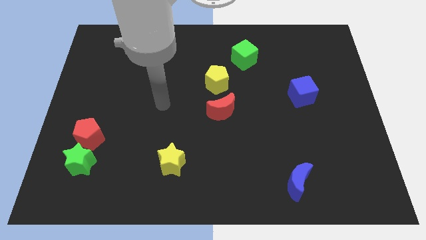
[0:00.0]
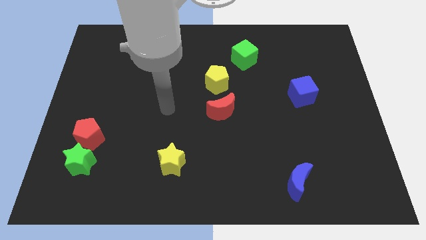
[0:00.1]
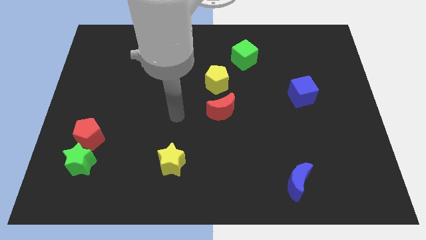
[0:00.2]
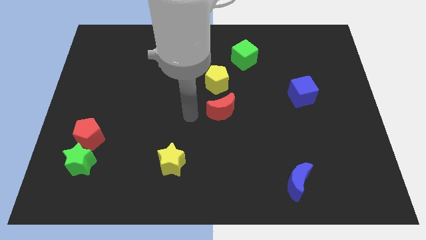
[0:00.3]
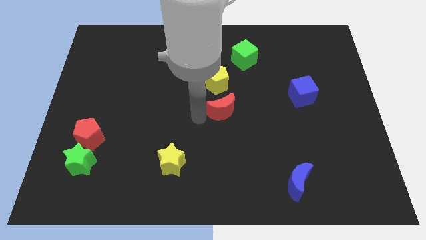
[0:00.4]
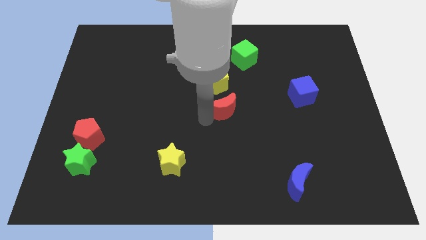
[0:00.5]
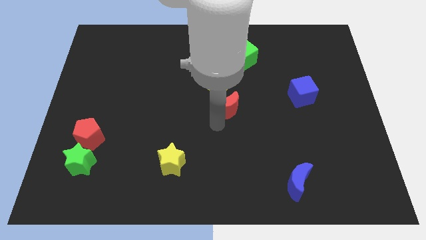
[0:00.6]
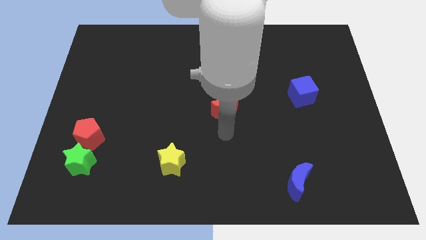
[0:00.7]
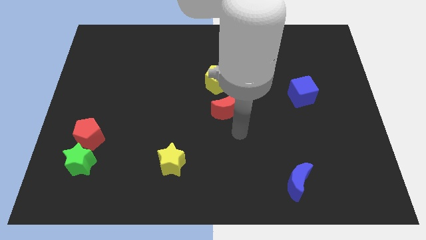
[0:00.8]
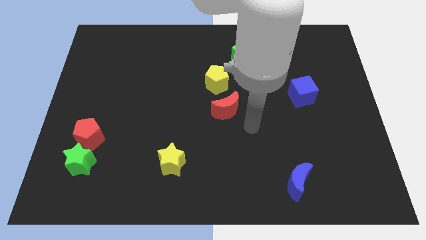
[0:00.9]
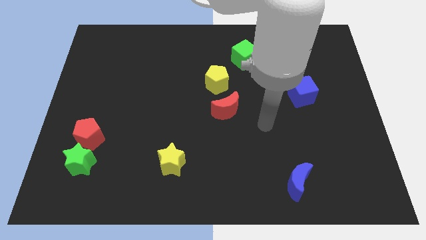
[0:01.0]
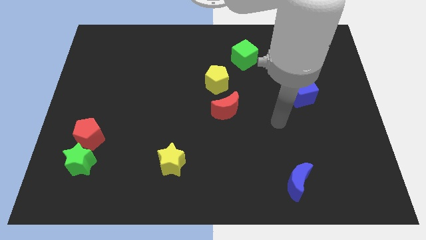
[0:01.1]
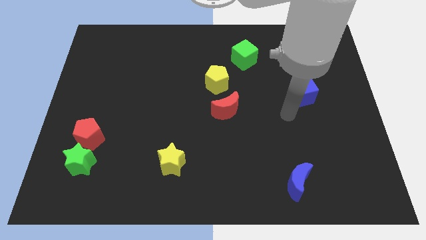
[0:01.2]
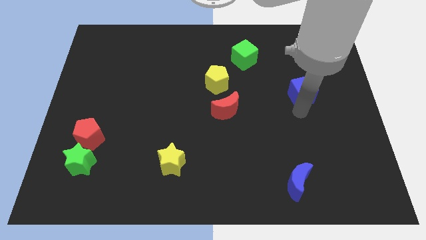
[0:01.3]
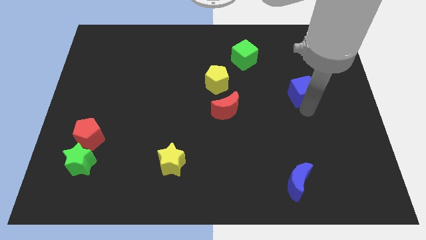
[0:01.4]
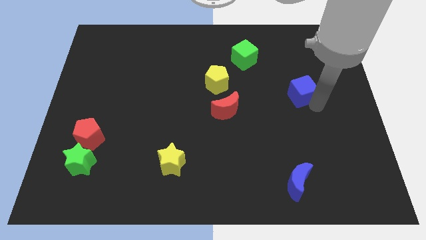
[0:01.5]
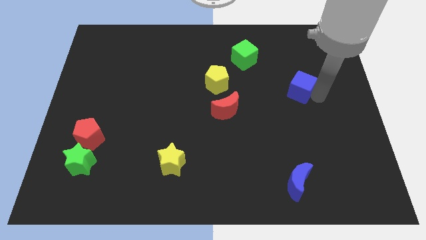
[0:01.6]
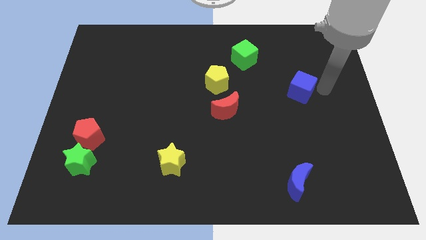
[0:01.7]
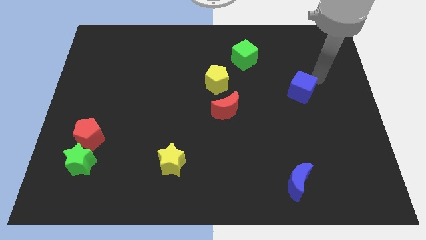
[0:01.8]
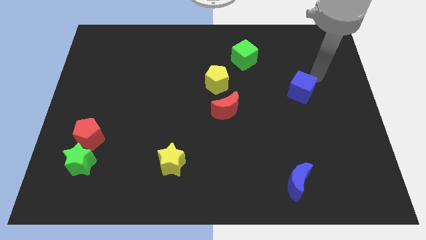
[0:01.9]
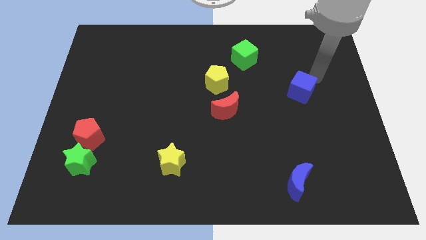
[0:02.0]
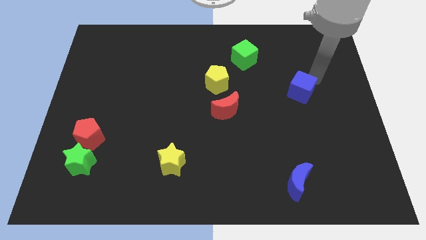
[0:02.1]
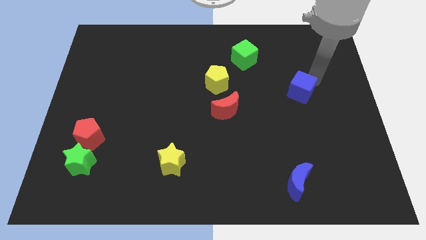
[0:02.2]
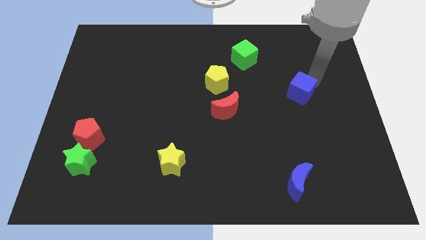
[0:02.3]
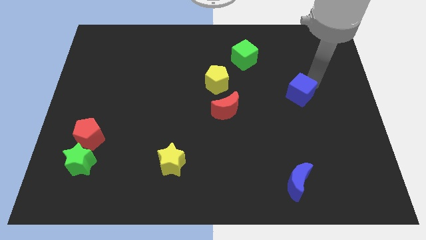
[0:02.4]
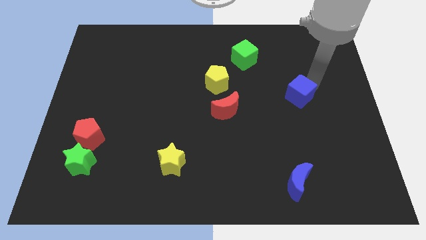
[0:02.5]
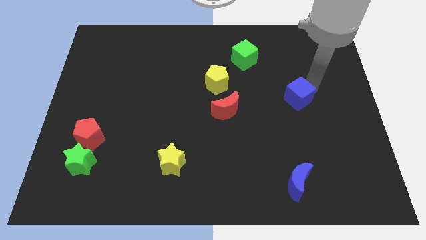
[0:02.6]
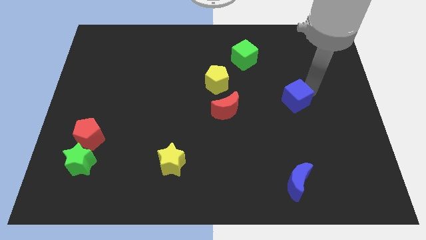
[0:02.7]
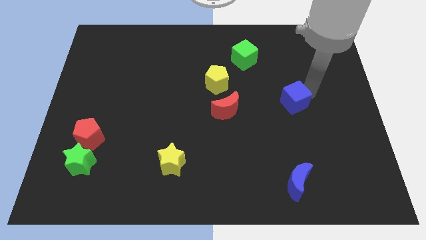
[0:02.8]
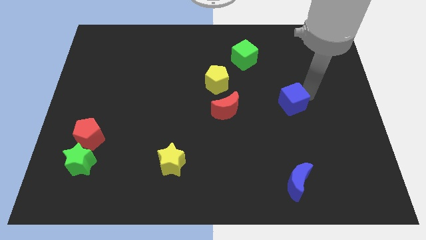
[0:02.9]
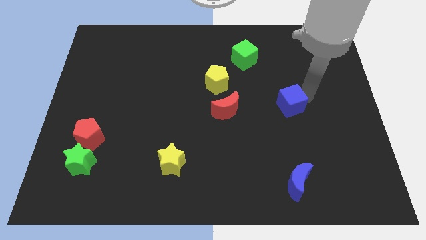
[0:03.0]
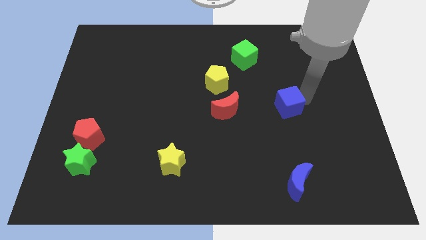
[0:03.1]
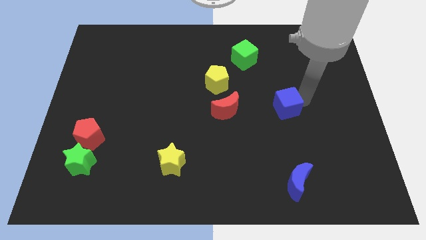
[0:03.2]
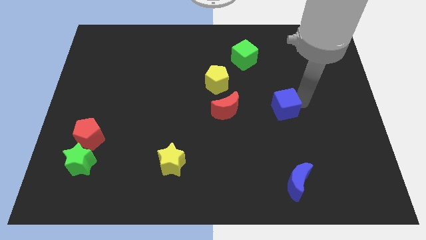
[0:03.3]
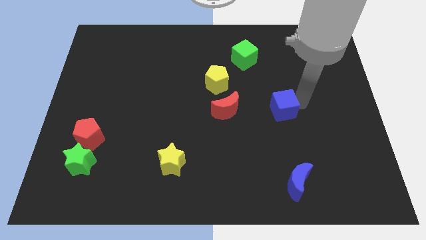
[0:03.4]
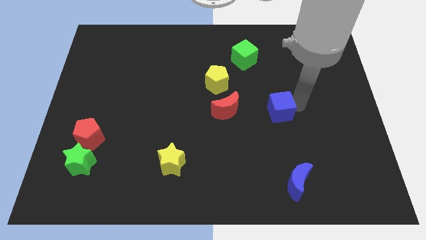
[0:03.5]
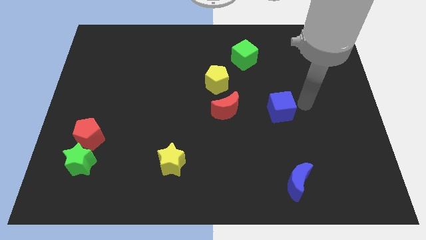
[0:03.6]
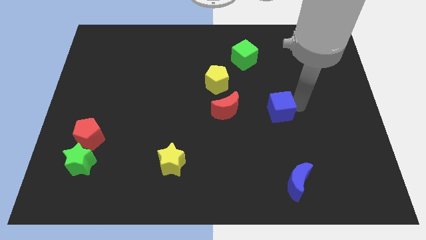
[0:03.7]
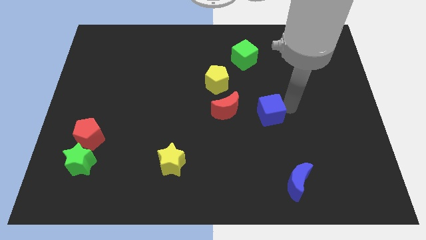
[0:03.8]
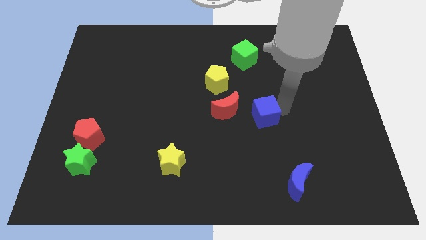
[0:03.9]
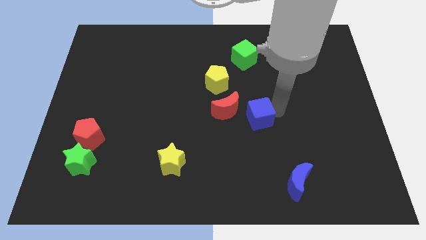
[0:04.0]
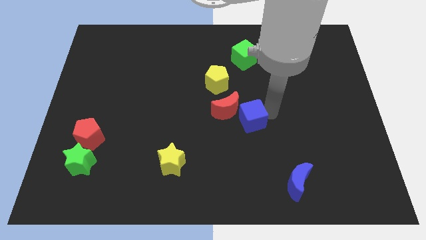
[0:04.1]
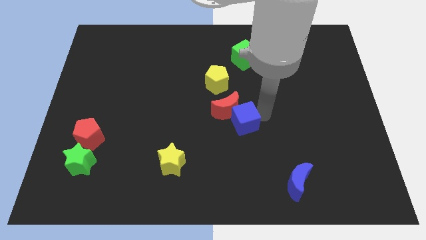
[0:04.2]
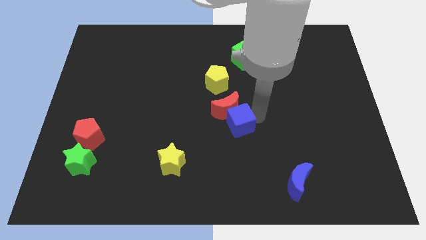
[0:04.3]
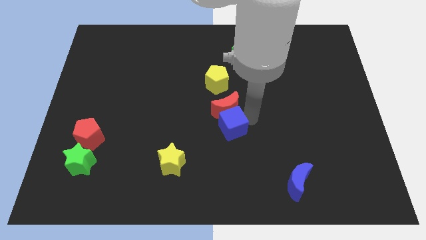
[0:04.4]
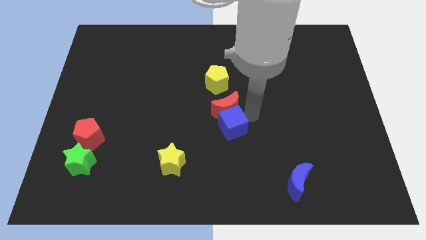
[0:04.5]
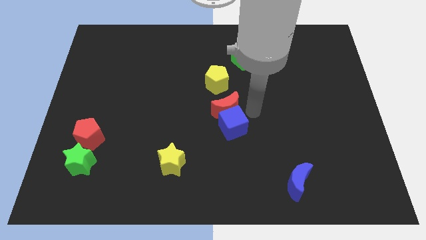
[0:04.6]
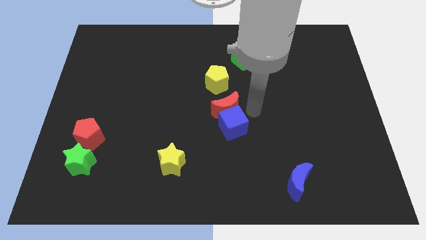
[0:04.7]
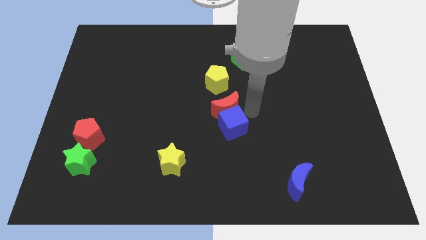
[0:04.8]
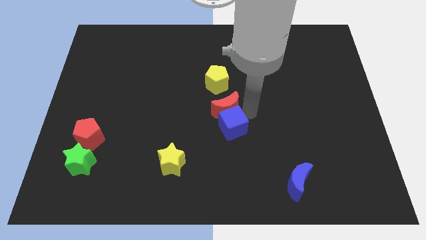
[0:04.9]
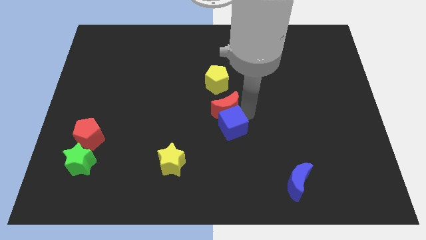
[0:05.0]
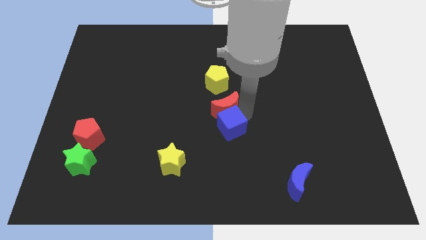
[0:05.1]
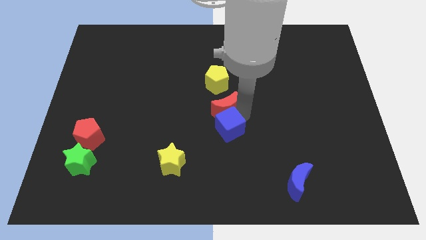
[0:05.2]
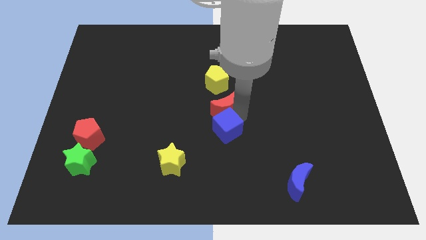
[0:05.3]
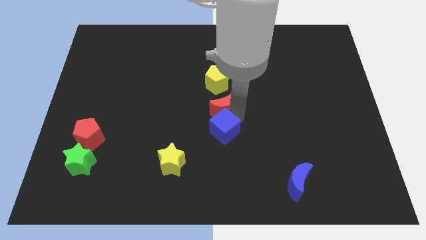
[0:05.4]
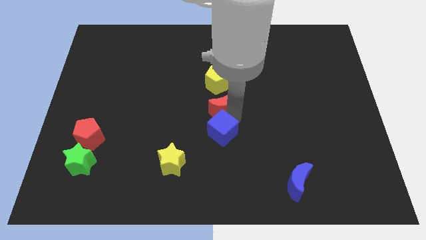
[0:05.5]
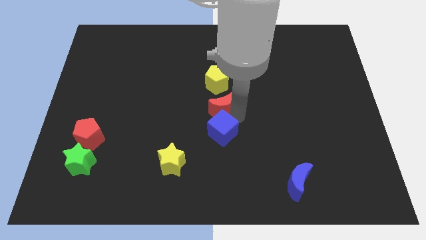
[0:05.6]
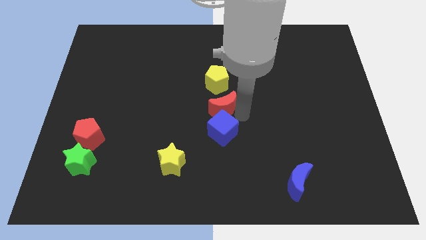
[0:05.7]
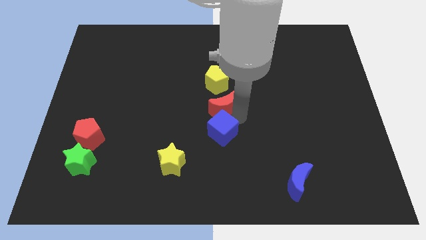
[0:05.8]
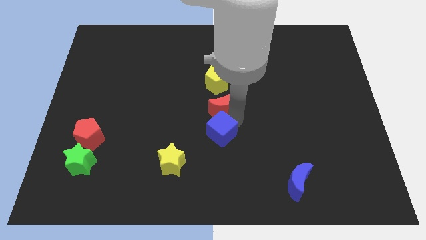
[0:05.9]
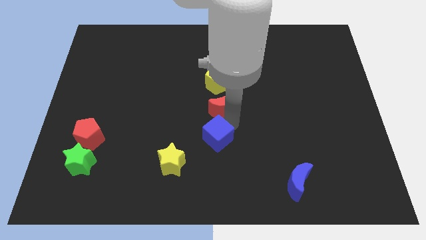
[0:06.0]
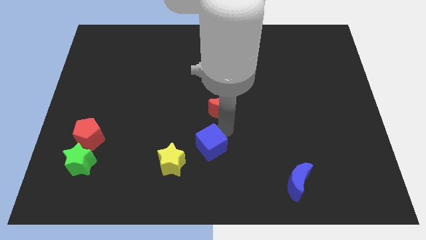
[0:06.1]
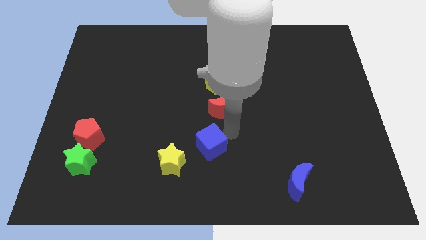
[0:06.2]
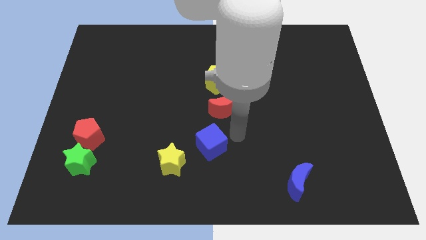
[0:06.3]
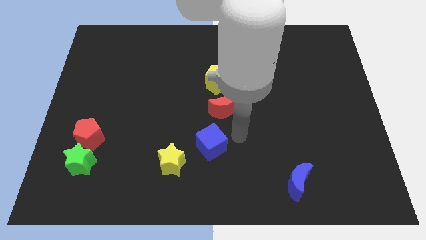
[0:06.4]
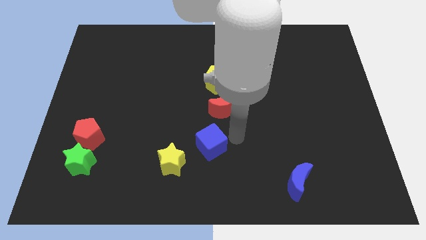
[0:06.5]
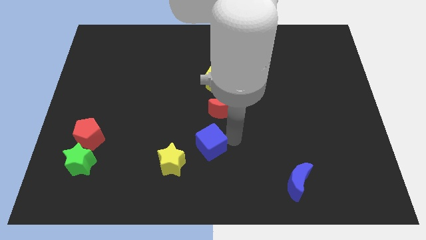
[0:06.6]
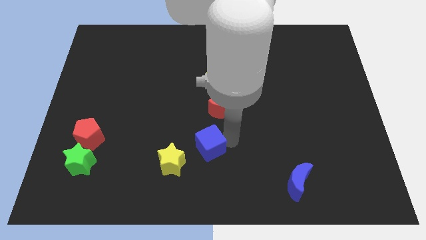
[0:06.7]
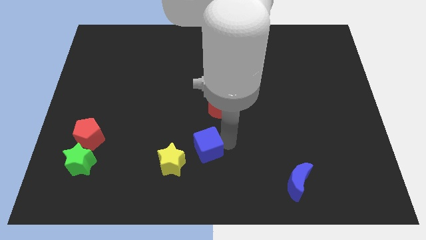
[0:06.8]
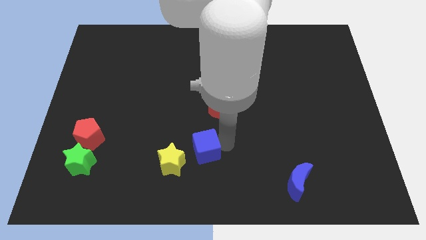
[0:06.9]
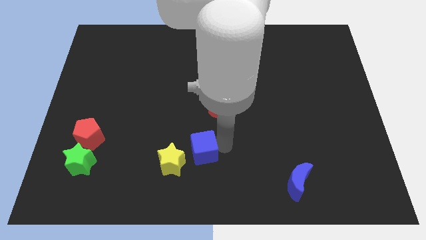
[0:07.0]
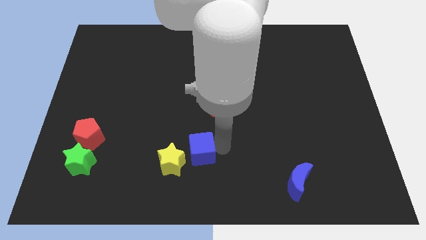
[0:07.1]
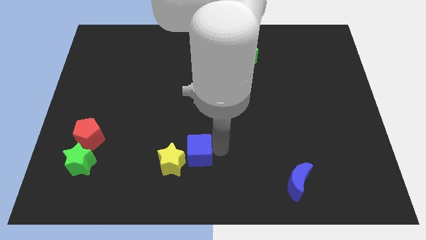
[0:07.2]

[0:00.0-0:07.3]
slide the blue cube to the yellow star

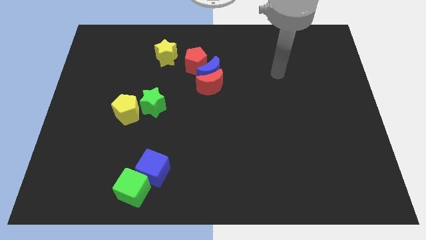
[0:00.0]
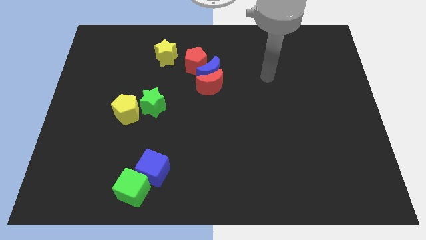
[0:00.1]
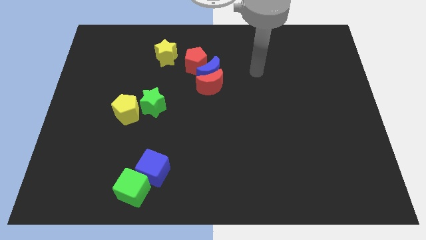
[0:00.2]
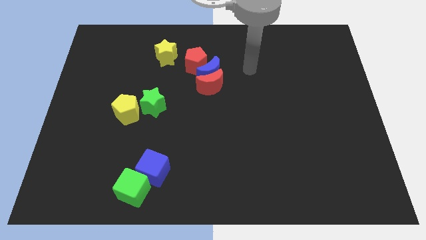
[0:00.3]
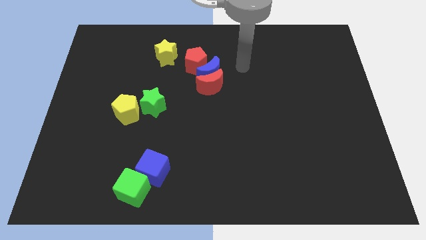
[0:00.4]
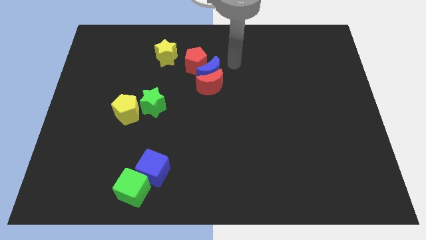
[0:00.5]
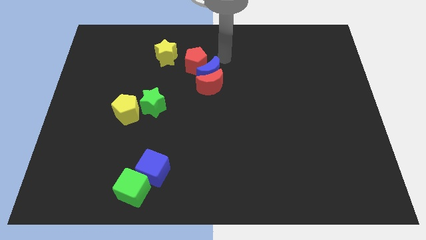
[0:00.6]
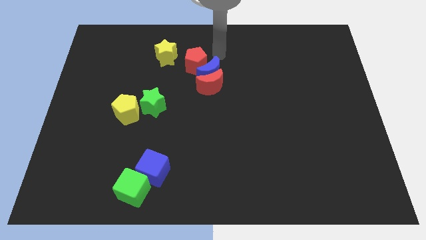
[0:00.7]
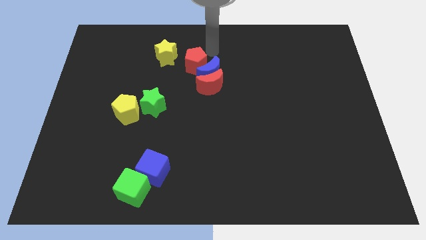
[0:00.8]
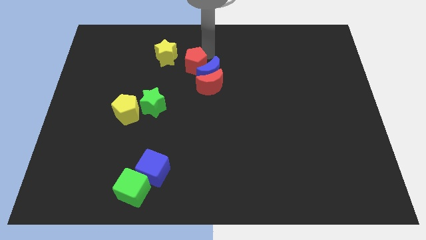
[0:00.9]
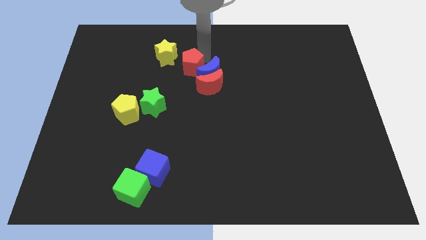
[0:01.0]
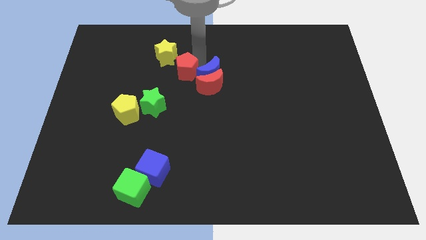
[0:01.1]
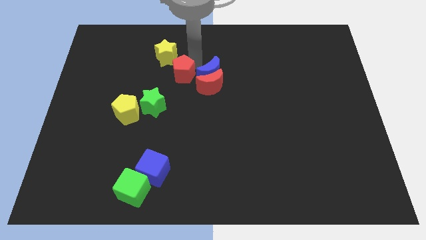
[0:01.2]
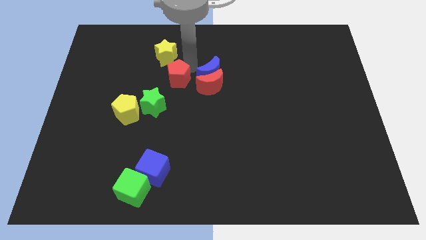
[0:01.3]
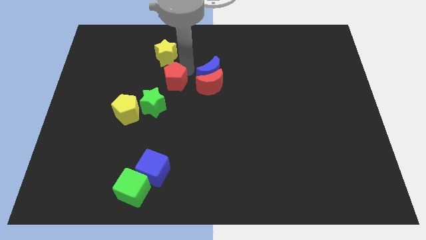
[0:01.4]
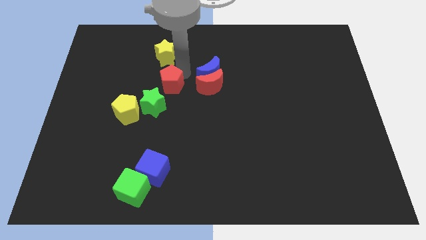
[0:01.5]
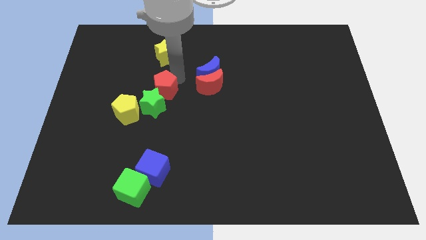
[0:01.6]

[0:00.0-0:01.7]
put the red pentagon next to the green star
